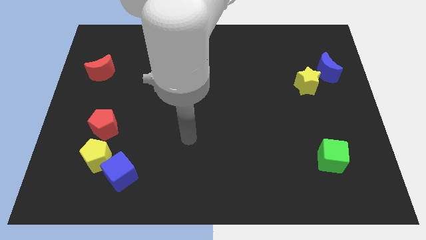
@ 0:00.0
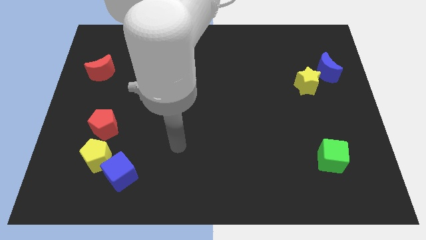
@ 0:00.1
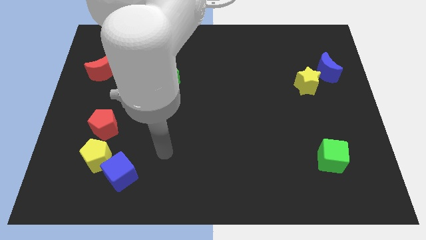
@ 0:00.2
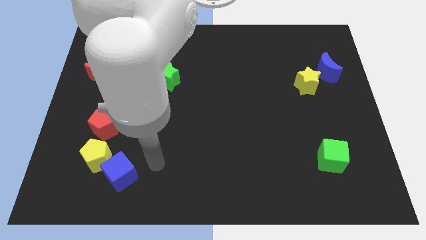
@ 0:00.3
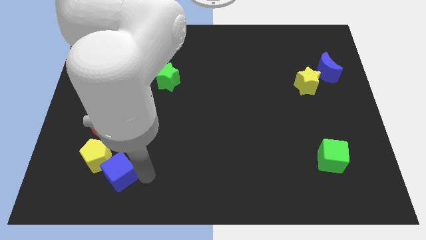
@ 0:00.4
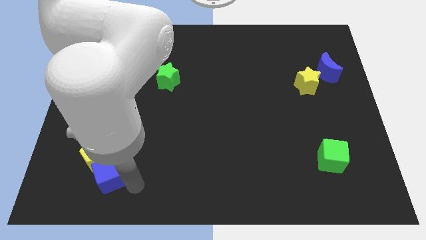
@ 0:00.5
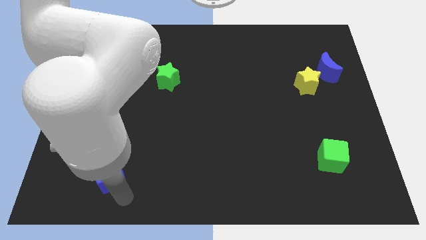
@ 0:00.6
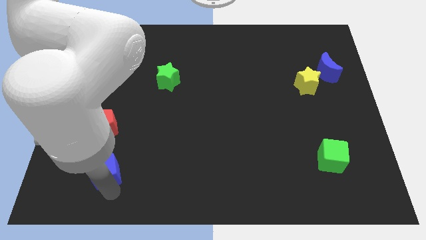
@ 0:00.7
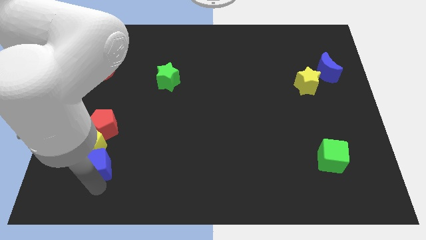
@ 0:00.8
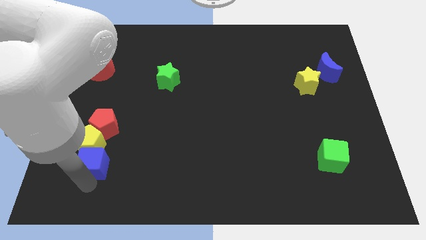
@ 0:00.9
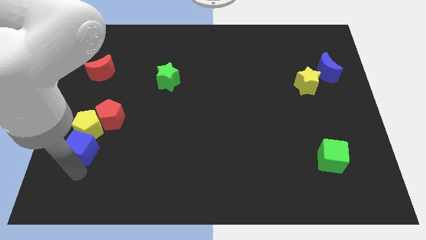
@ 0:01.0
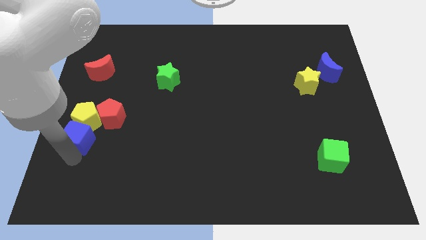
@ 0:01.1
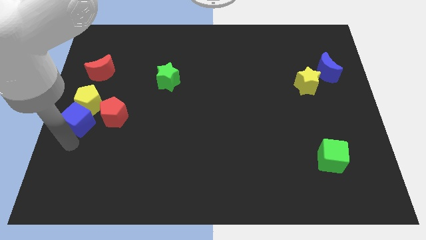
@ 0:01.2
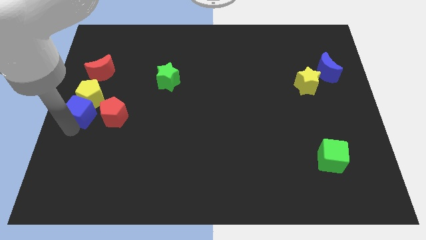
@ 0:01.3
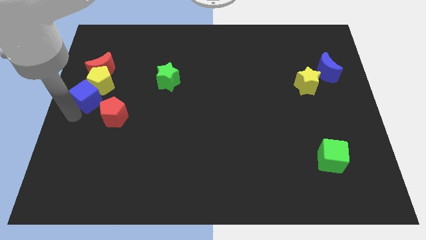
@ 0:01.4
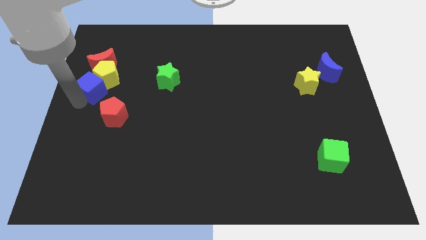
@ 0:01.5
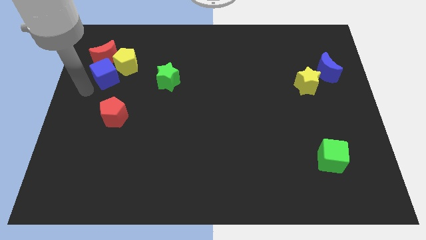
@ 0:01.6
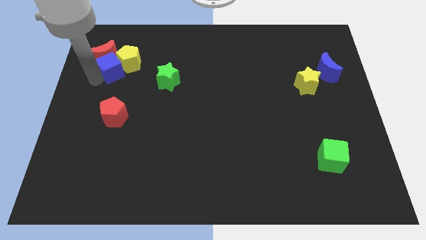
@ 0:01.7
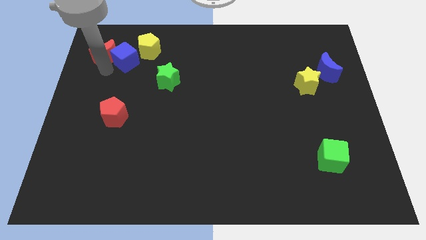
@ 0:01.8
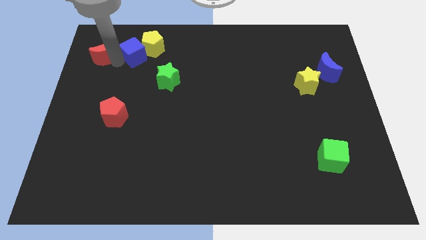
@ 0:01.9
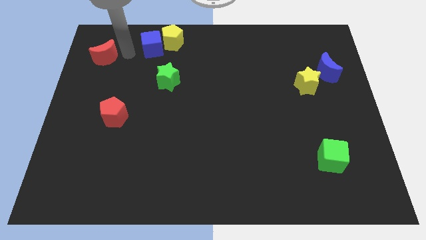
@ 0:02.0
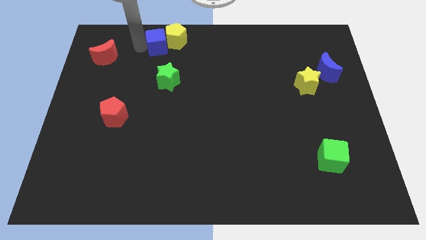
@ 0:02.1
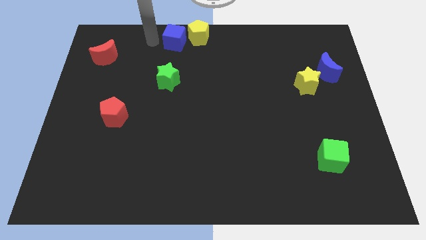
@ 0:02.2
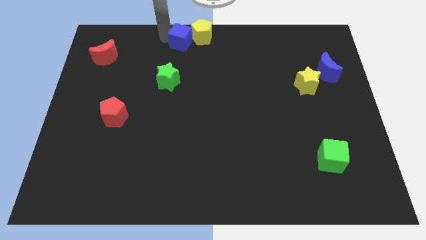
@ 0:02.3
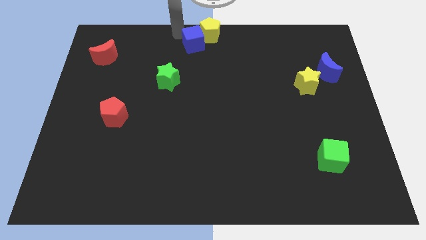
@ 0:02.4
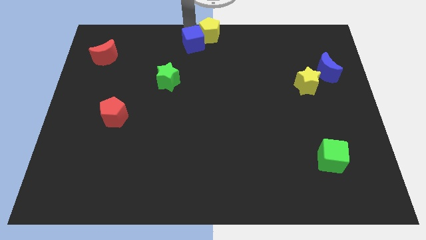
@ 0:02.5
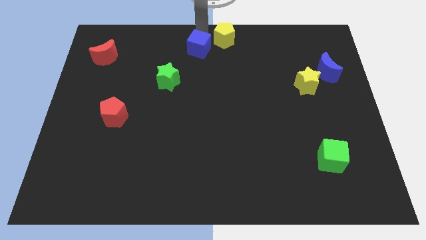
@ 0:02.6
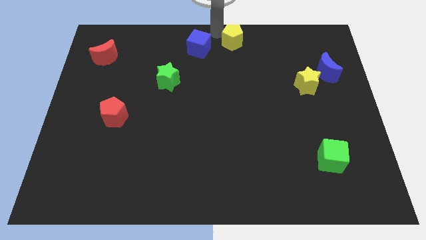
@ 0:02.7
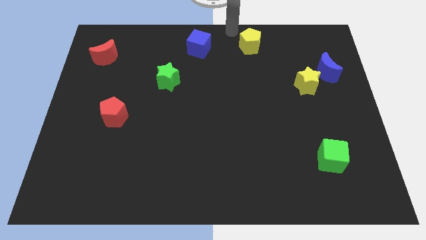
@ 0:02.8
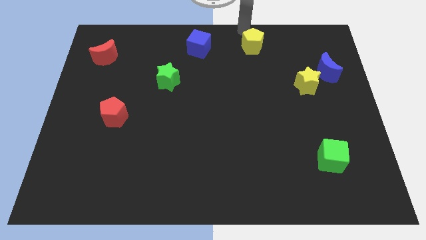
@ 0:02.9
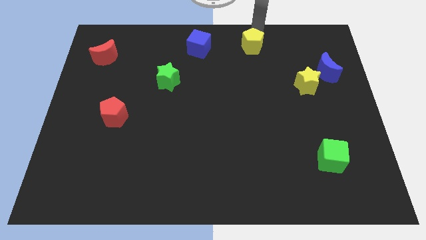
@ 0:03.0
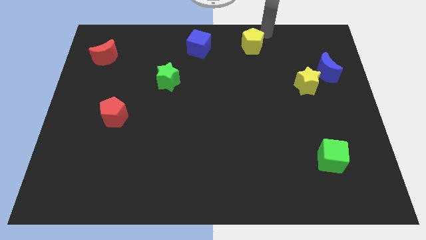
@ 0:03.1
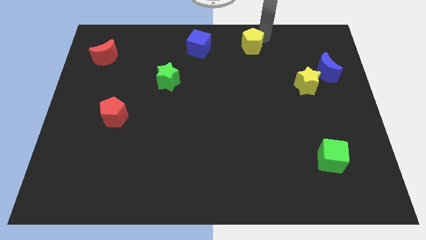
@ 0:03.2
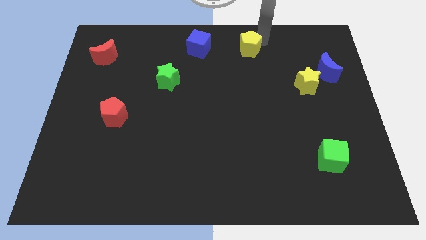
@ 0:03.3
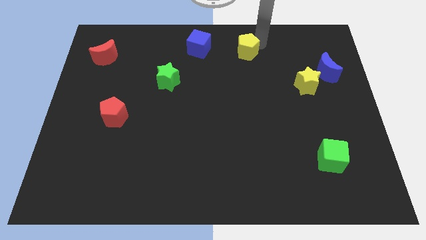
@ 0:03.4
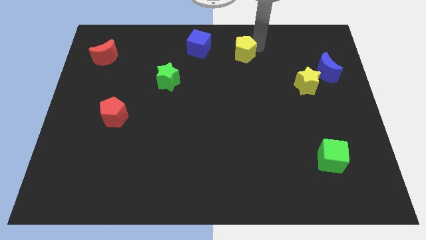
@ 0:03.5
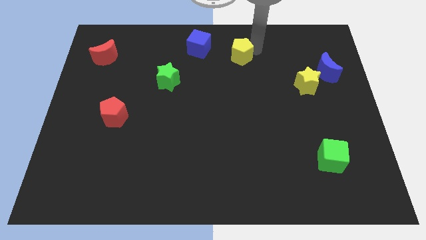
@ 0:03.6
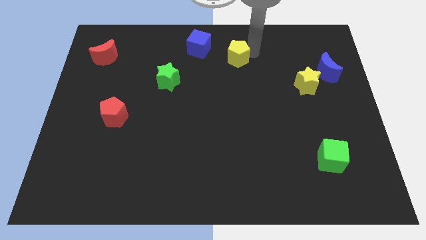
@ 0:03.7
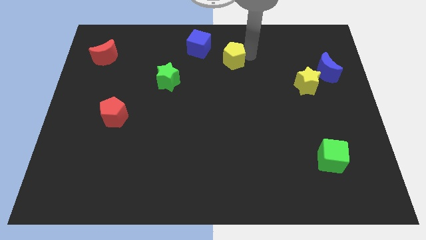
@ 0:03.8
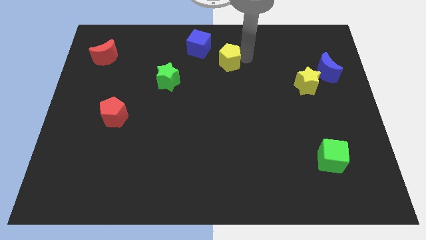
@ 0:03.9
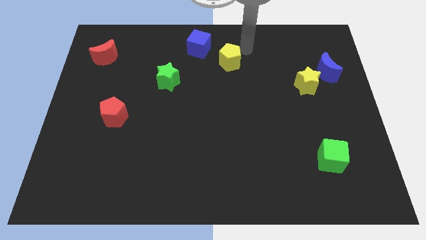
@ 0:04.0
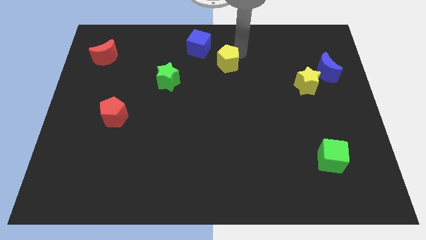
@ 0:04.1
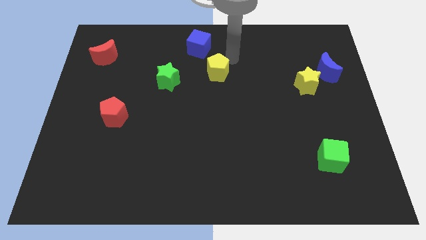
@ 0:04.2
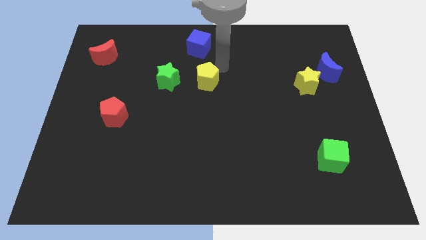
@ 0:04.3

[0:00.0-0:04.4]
slightly move the yellow pentagon up and right

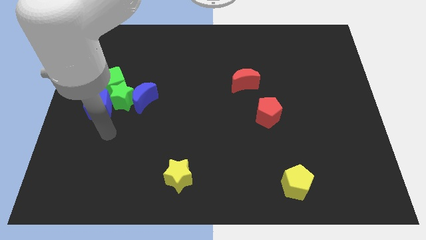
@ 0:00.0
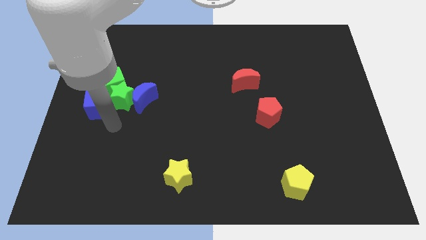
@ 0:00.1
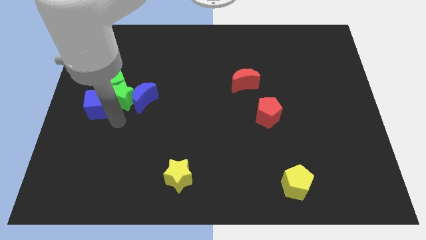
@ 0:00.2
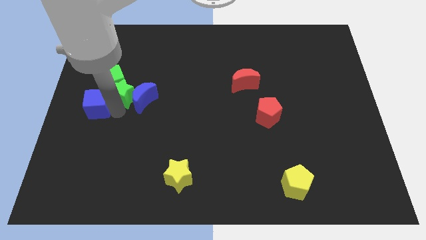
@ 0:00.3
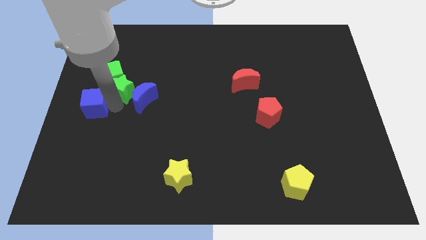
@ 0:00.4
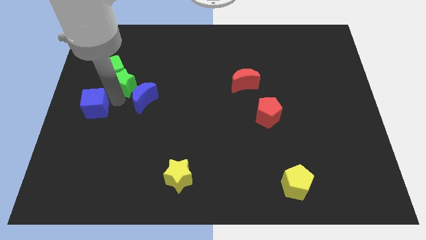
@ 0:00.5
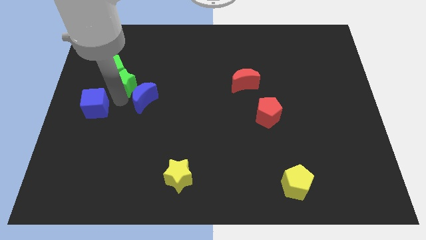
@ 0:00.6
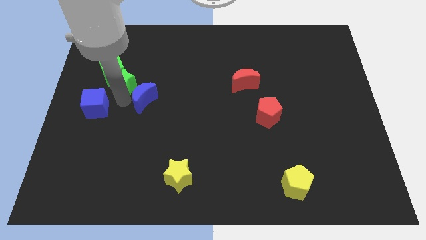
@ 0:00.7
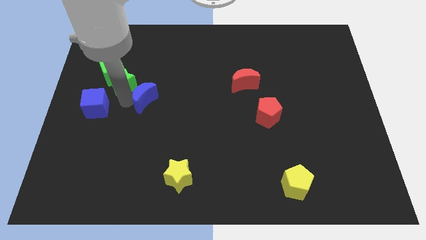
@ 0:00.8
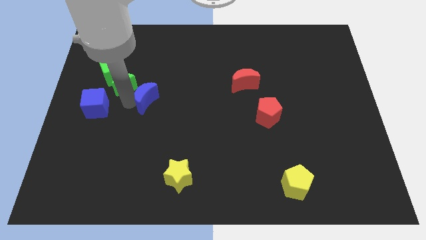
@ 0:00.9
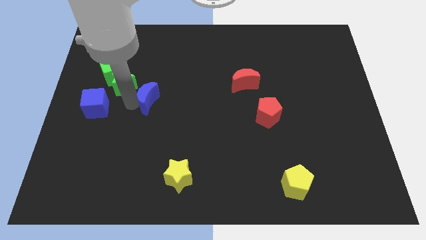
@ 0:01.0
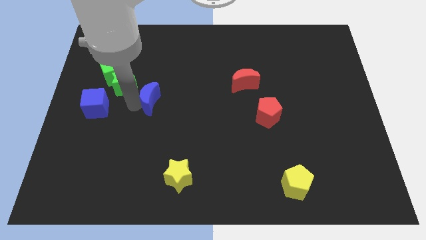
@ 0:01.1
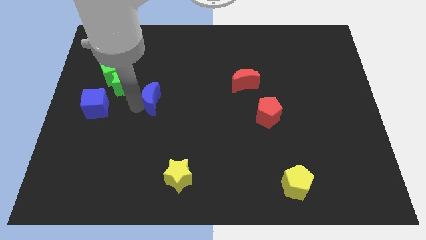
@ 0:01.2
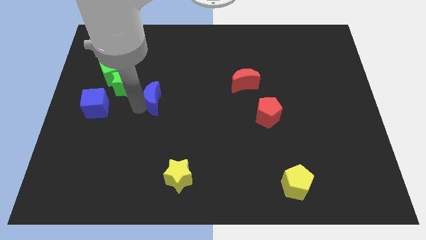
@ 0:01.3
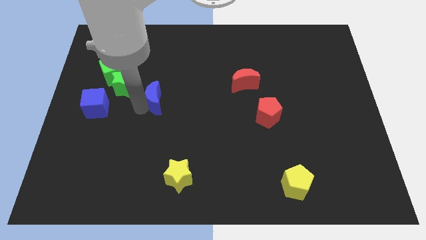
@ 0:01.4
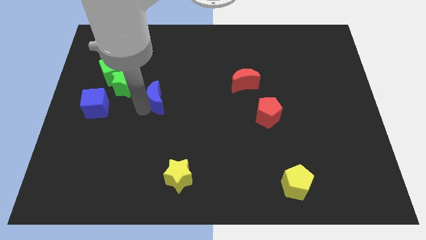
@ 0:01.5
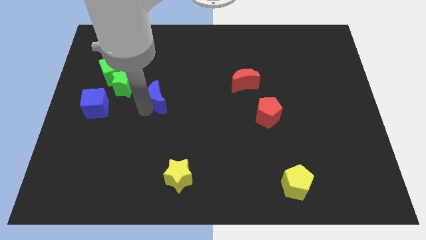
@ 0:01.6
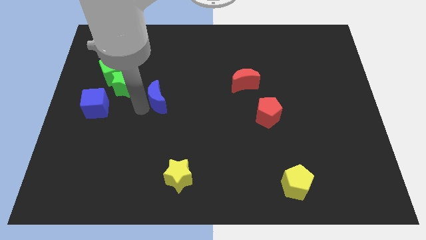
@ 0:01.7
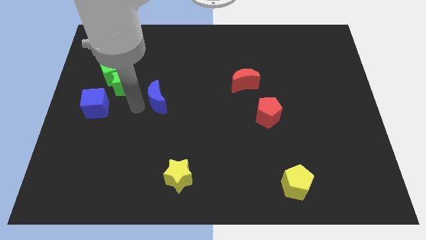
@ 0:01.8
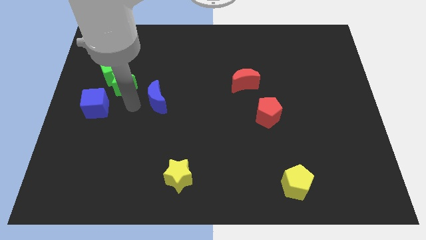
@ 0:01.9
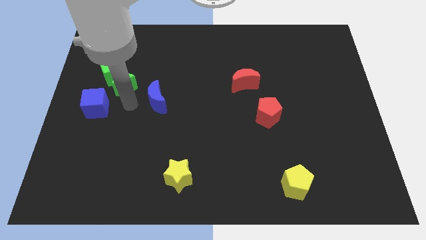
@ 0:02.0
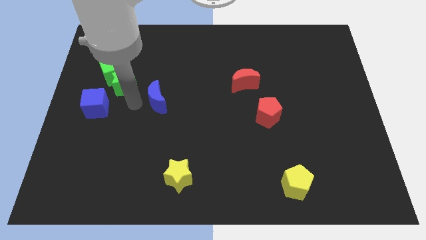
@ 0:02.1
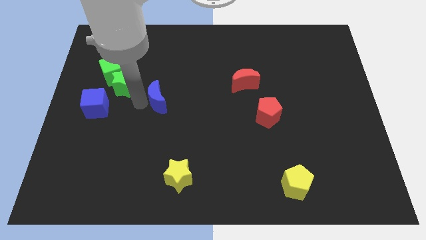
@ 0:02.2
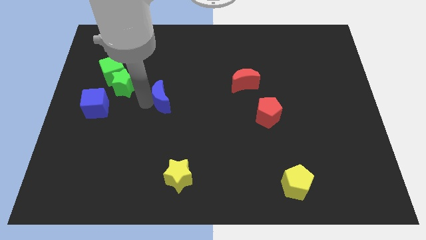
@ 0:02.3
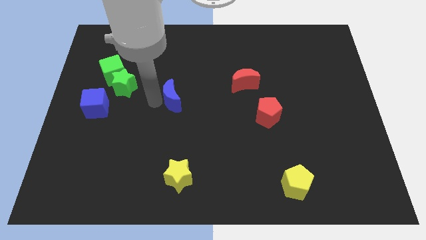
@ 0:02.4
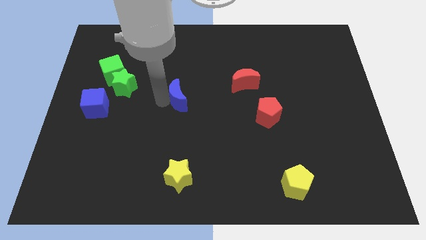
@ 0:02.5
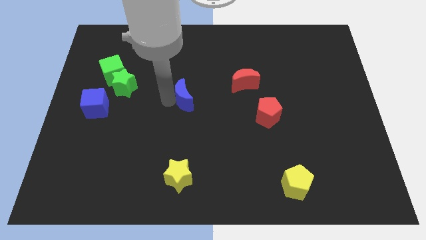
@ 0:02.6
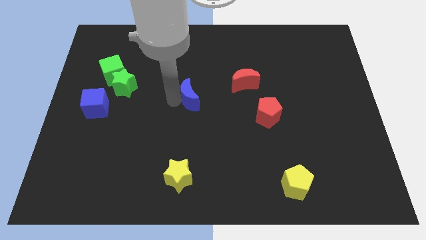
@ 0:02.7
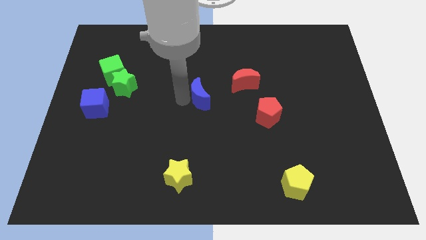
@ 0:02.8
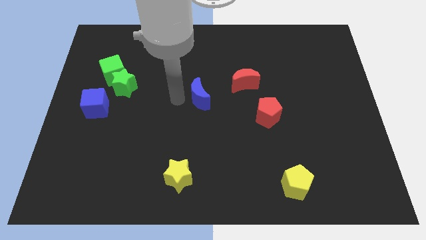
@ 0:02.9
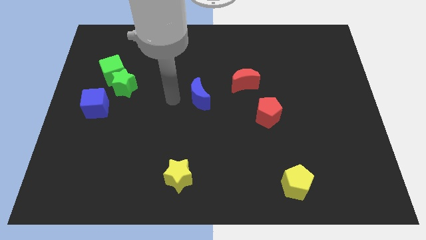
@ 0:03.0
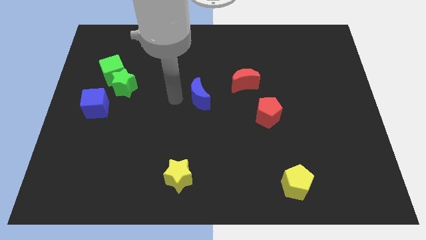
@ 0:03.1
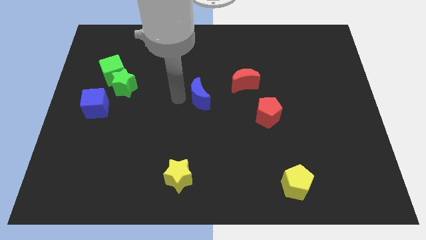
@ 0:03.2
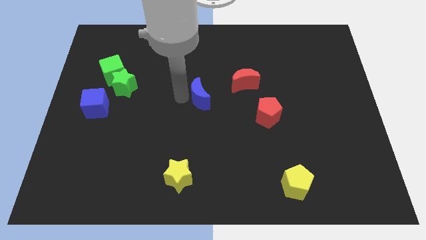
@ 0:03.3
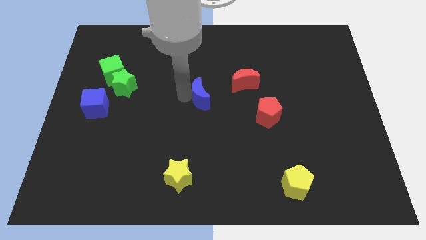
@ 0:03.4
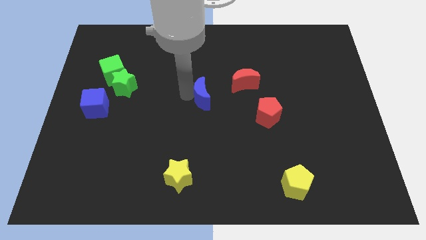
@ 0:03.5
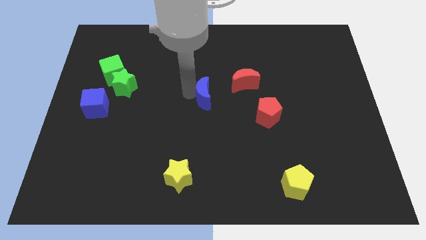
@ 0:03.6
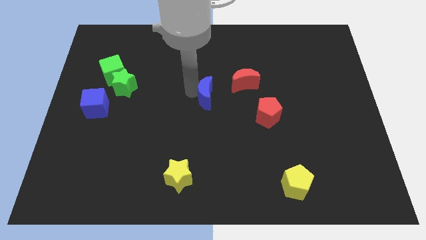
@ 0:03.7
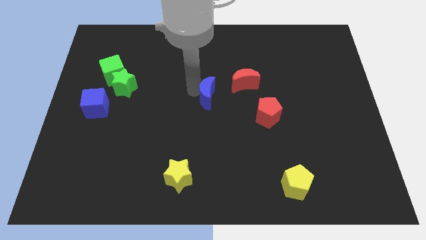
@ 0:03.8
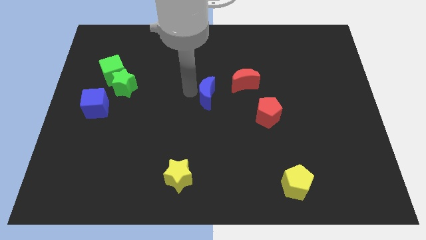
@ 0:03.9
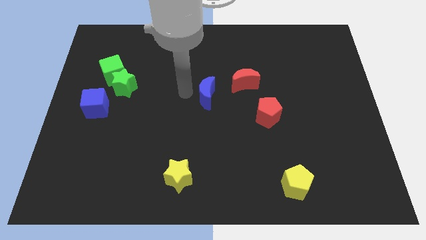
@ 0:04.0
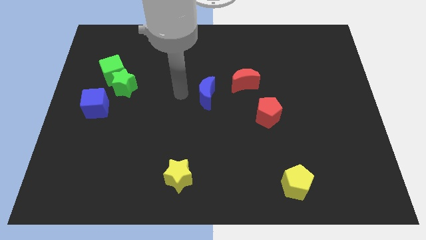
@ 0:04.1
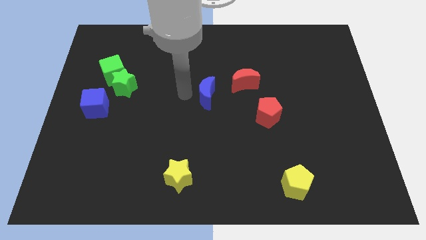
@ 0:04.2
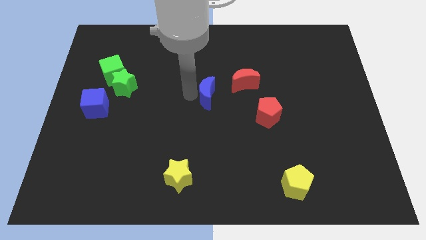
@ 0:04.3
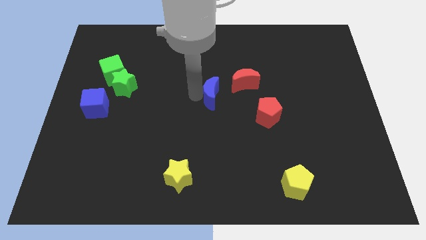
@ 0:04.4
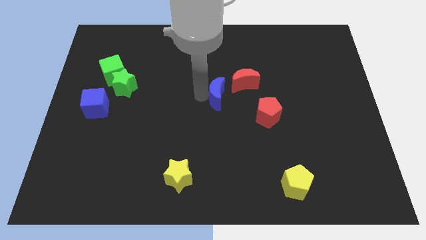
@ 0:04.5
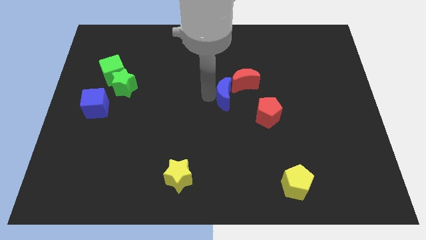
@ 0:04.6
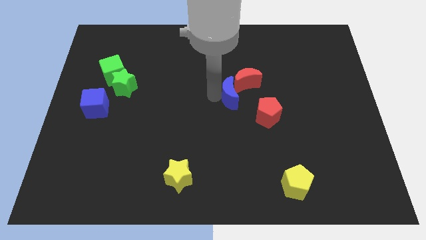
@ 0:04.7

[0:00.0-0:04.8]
slide the blue moon right
